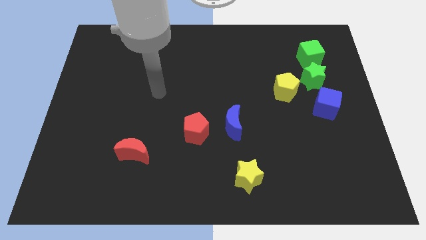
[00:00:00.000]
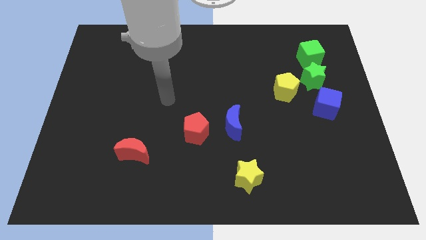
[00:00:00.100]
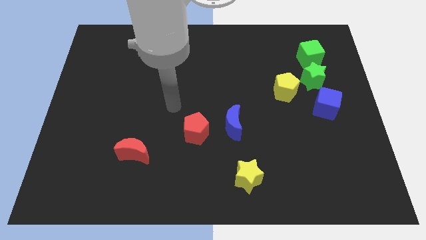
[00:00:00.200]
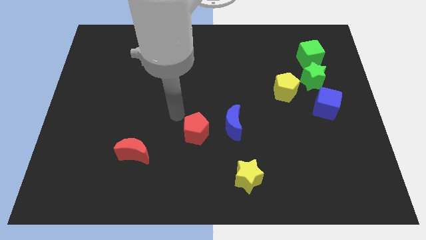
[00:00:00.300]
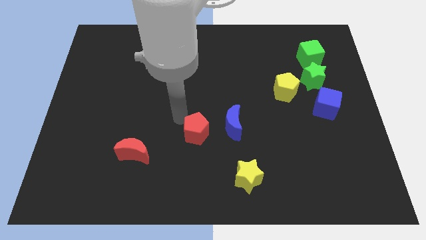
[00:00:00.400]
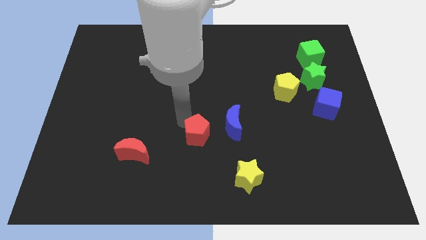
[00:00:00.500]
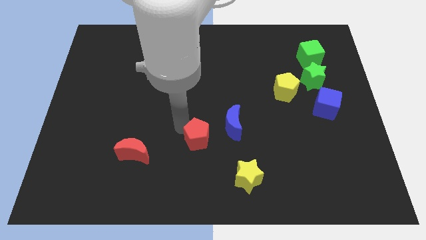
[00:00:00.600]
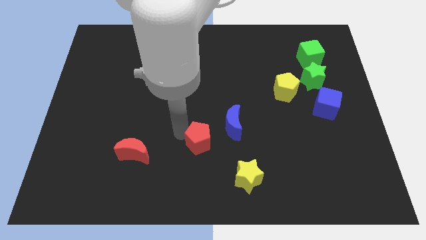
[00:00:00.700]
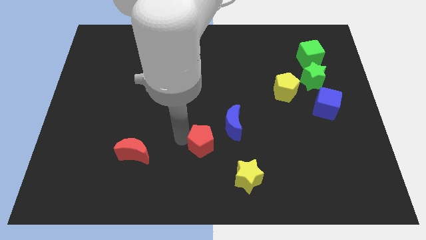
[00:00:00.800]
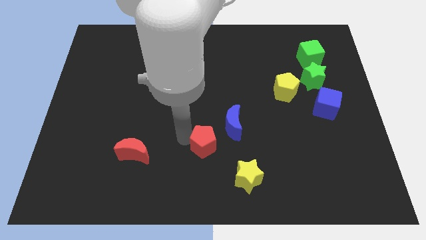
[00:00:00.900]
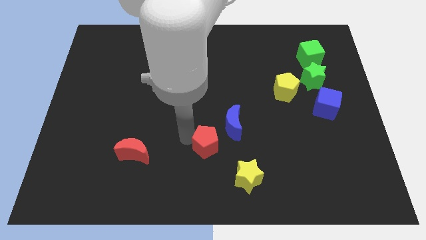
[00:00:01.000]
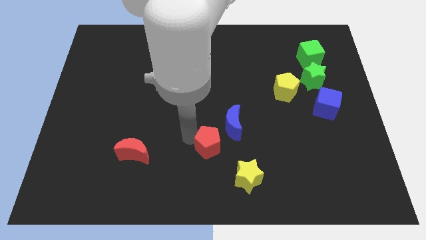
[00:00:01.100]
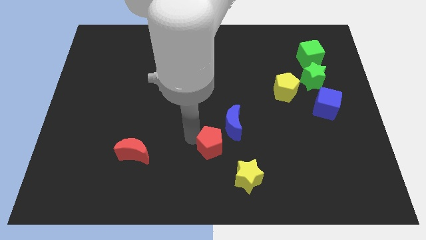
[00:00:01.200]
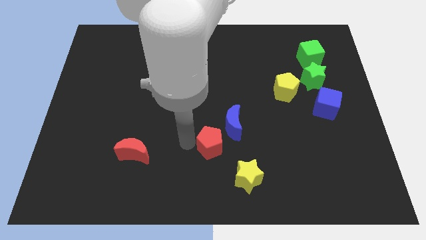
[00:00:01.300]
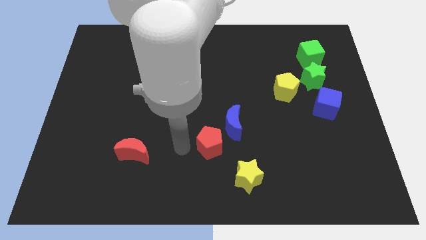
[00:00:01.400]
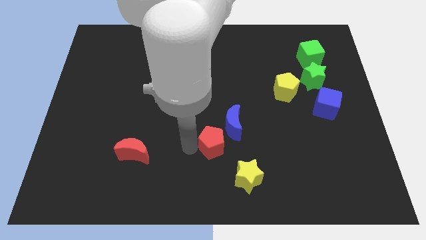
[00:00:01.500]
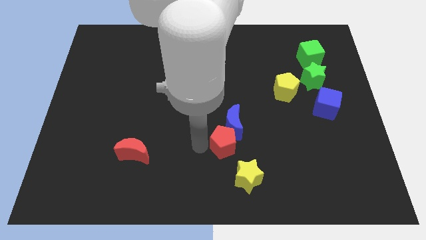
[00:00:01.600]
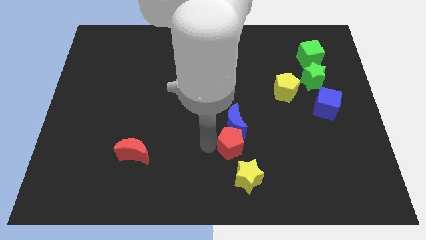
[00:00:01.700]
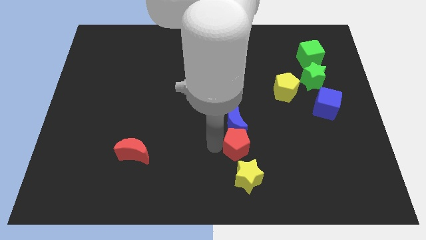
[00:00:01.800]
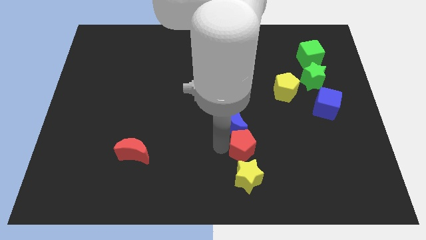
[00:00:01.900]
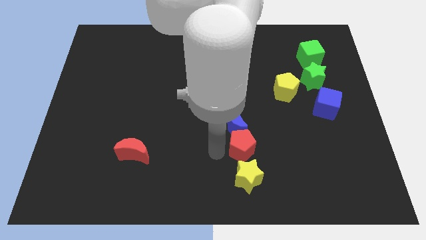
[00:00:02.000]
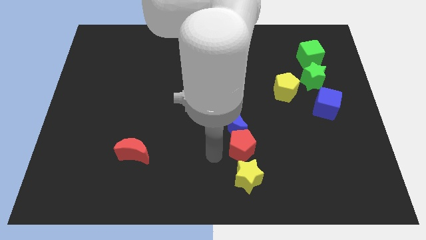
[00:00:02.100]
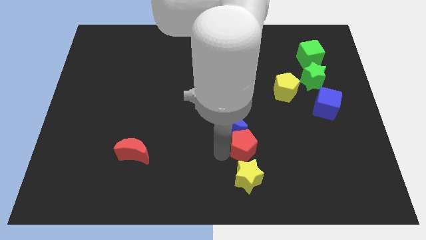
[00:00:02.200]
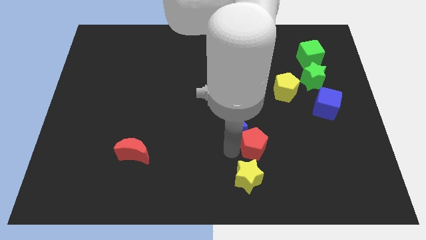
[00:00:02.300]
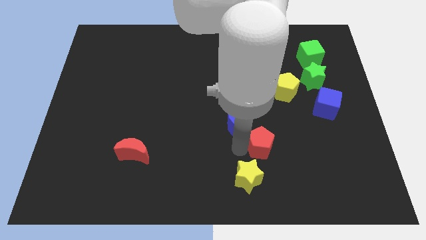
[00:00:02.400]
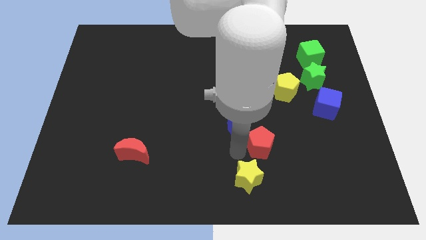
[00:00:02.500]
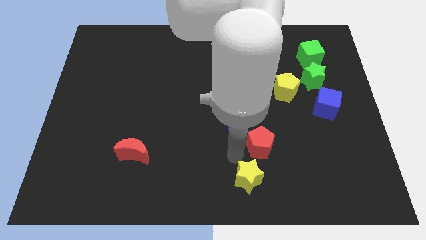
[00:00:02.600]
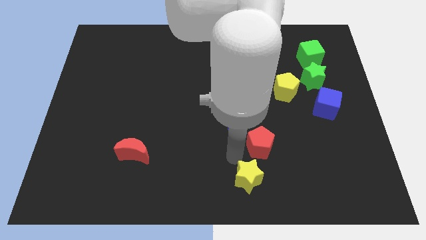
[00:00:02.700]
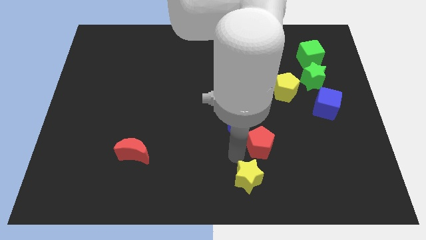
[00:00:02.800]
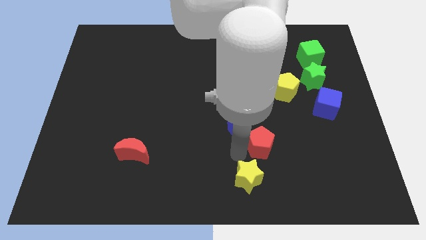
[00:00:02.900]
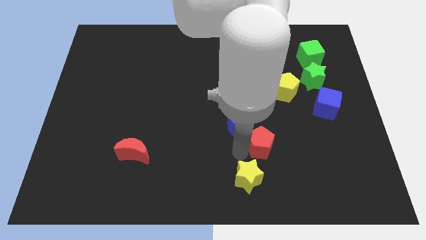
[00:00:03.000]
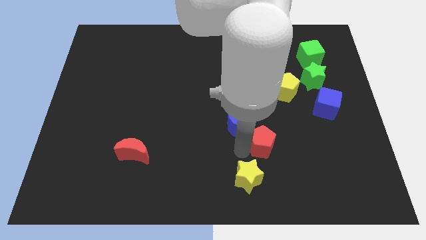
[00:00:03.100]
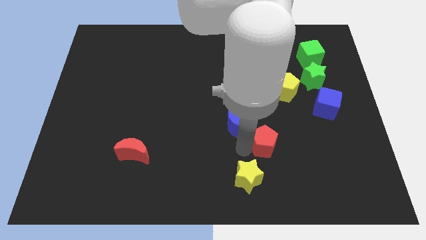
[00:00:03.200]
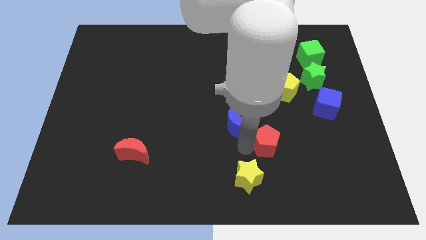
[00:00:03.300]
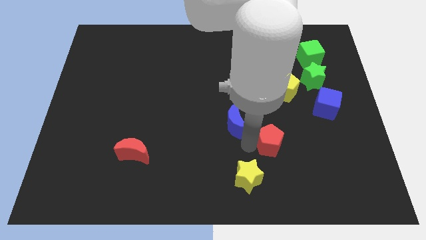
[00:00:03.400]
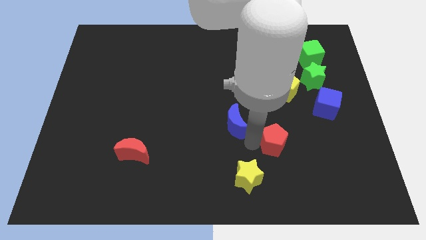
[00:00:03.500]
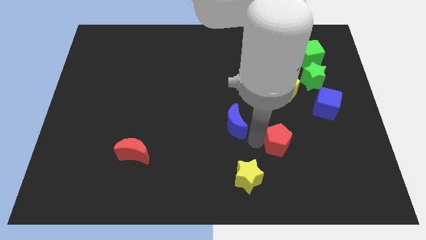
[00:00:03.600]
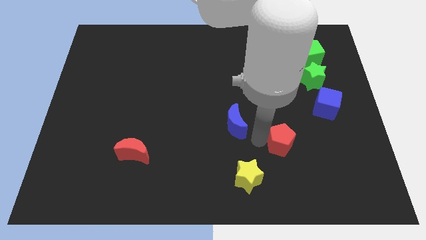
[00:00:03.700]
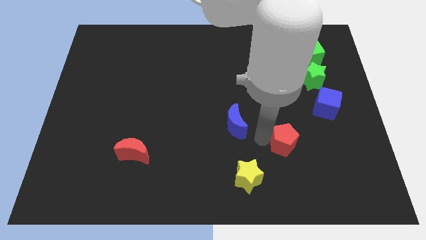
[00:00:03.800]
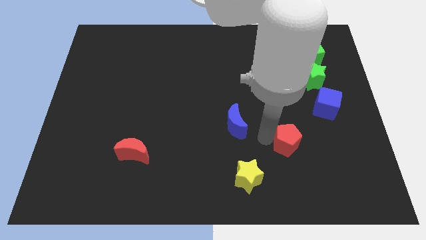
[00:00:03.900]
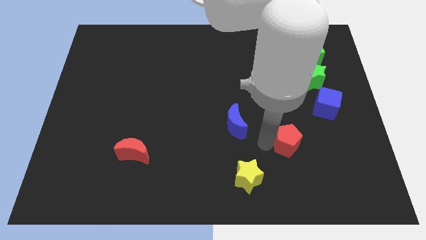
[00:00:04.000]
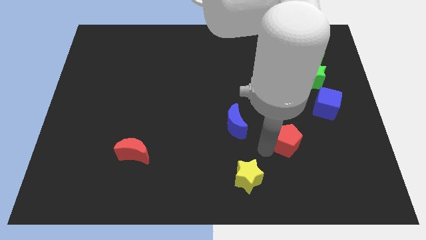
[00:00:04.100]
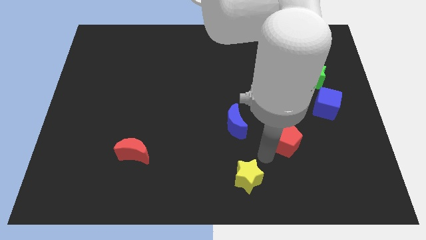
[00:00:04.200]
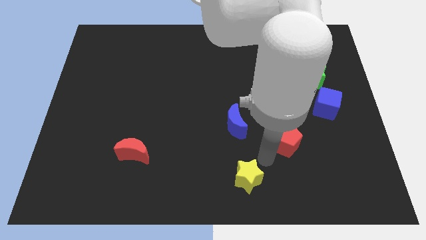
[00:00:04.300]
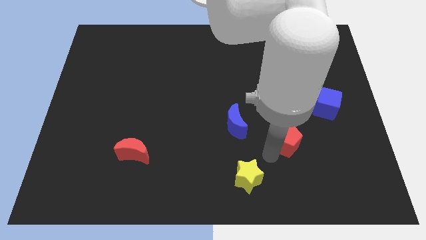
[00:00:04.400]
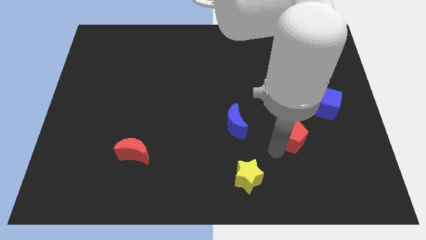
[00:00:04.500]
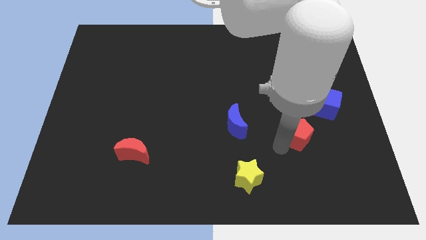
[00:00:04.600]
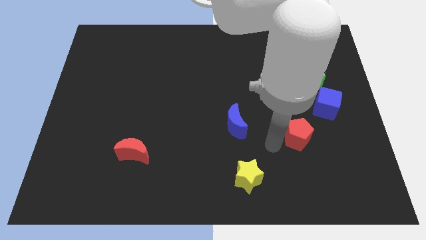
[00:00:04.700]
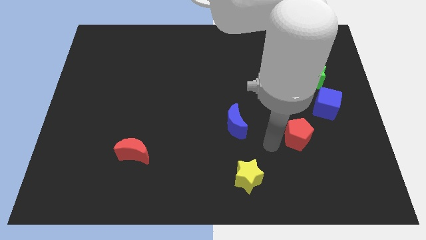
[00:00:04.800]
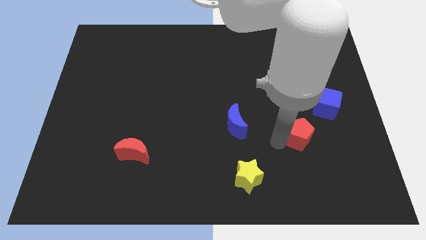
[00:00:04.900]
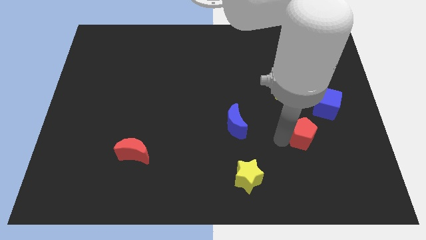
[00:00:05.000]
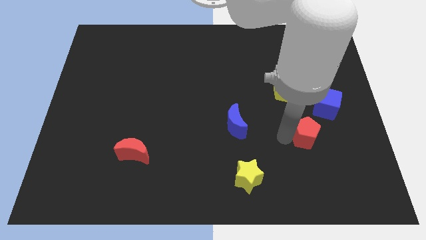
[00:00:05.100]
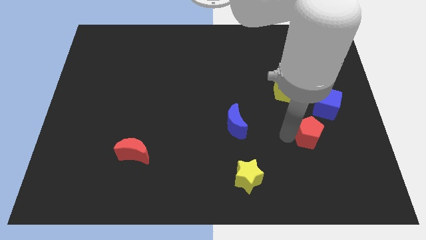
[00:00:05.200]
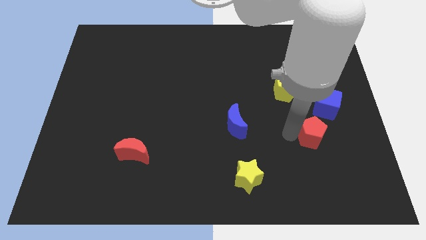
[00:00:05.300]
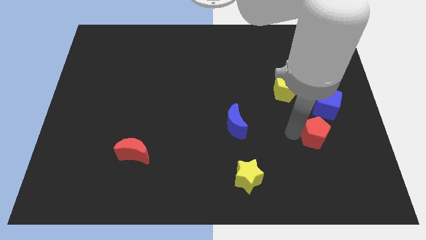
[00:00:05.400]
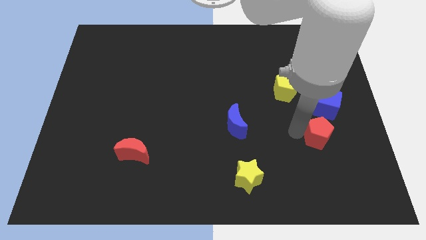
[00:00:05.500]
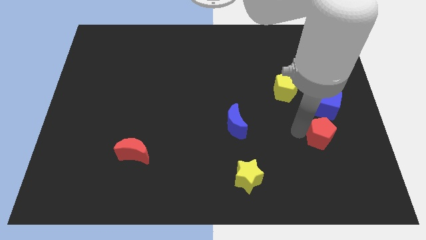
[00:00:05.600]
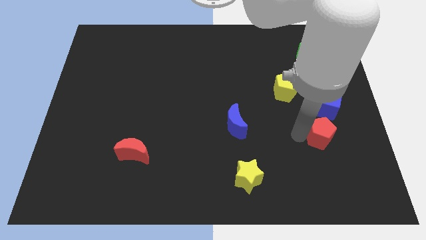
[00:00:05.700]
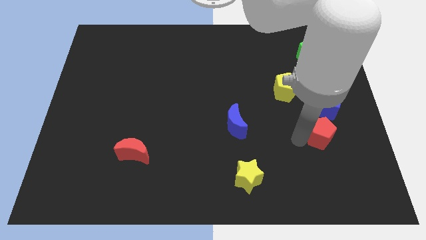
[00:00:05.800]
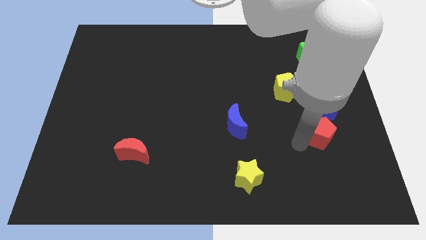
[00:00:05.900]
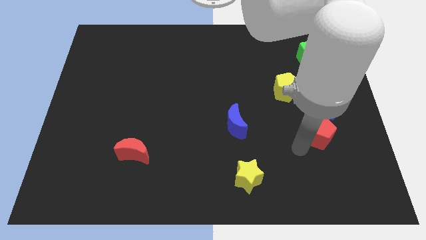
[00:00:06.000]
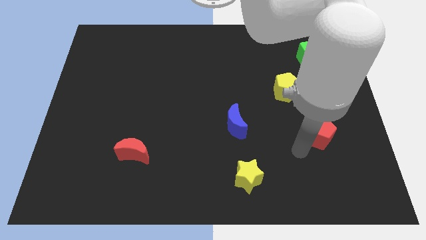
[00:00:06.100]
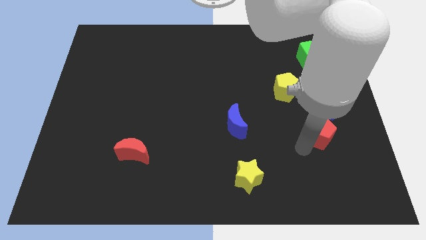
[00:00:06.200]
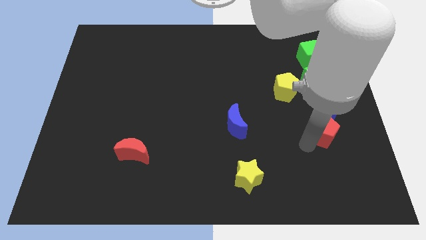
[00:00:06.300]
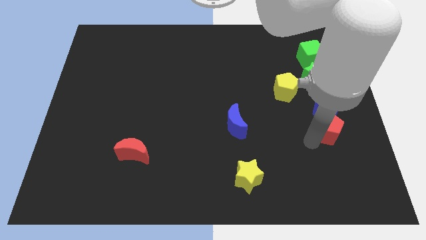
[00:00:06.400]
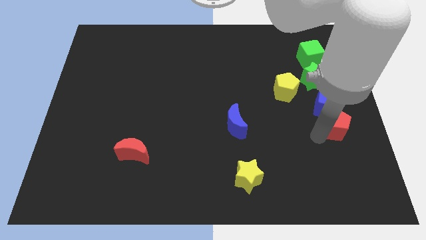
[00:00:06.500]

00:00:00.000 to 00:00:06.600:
push the red pentagon to the right side of the board

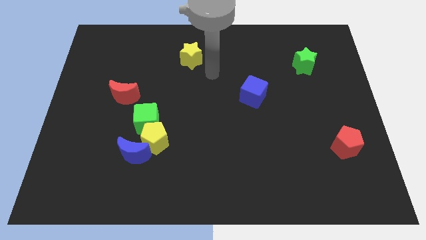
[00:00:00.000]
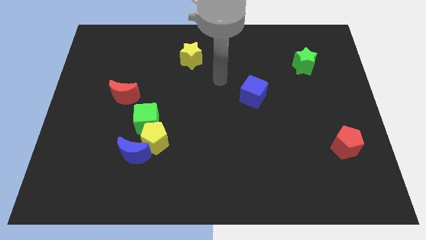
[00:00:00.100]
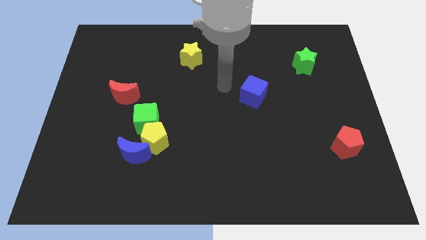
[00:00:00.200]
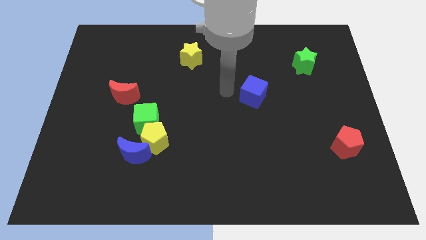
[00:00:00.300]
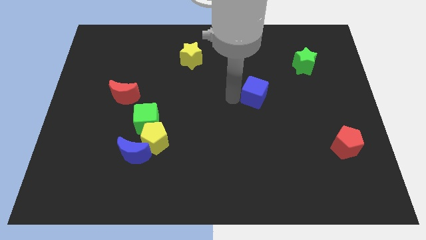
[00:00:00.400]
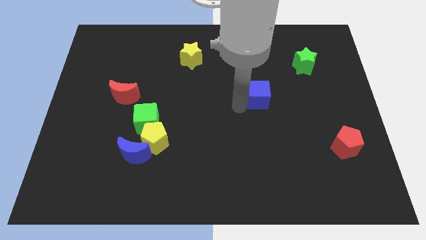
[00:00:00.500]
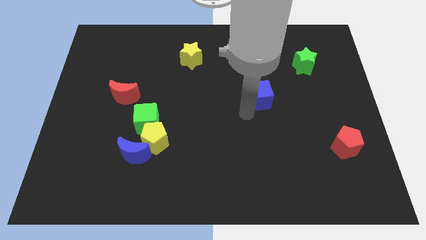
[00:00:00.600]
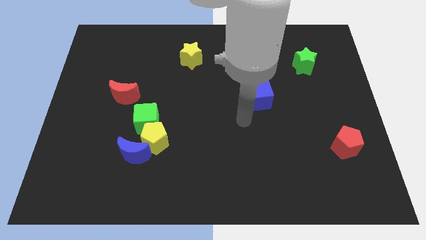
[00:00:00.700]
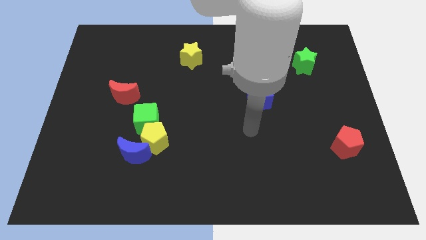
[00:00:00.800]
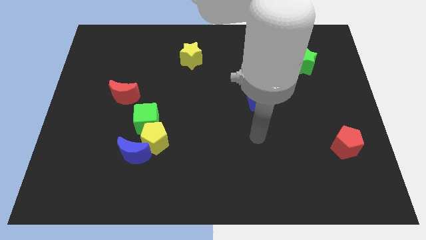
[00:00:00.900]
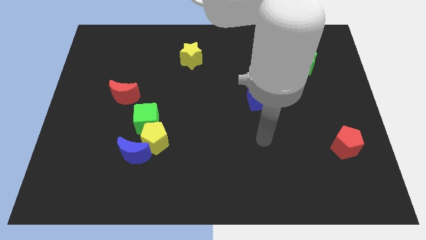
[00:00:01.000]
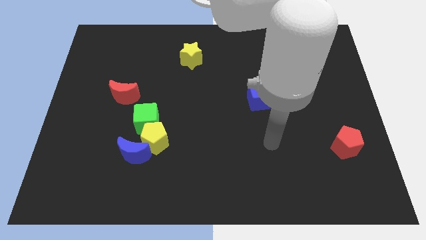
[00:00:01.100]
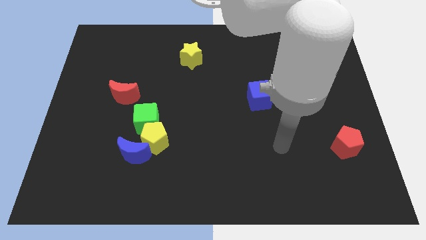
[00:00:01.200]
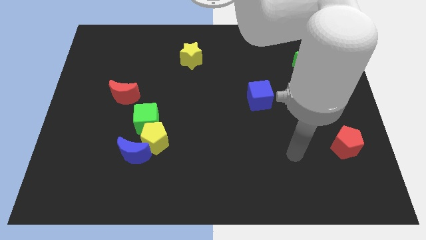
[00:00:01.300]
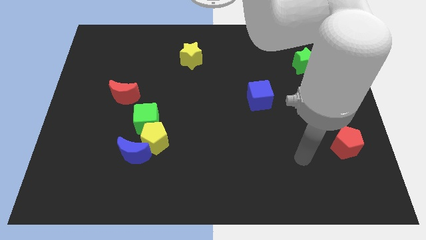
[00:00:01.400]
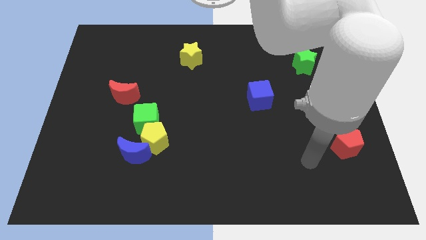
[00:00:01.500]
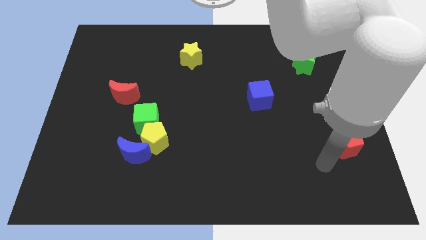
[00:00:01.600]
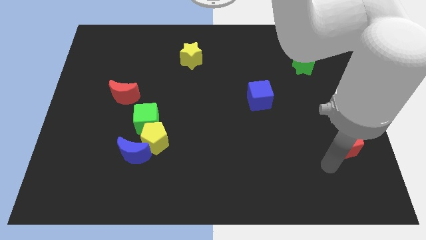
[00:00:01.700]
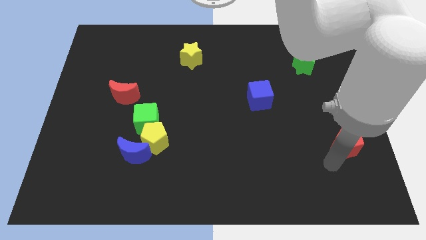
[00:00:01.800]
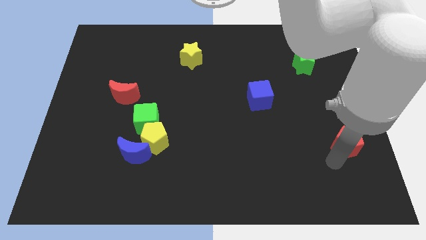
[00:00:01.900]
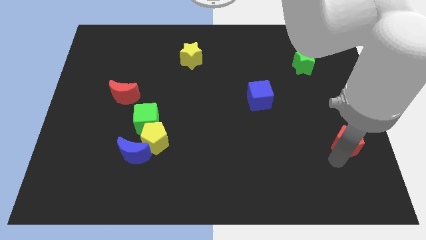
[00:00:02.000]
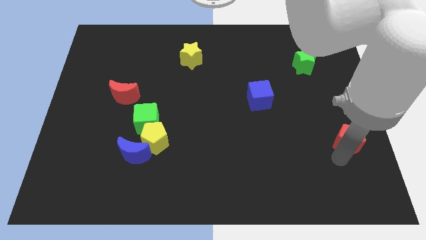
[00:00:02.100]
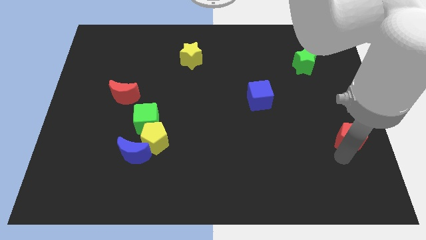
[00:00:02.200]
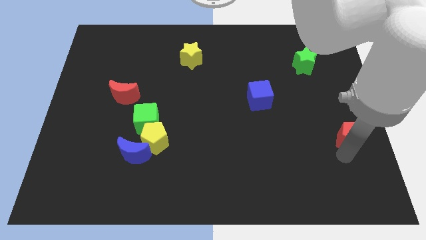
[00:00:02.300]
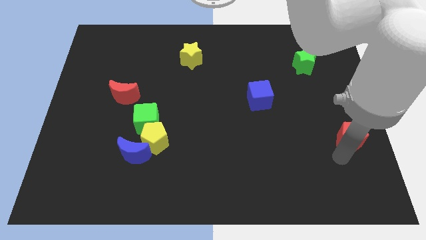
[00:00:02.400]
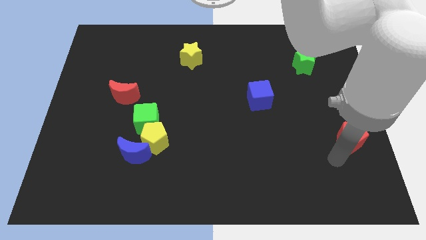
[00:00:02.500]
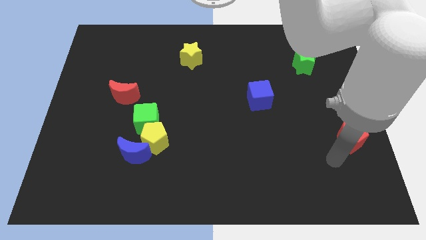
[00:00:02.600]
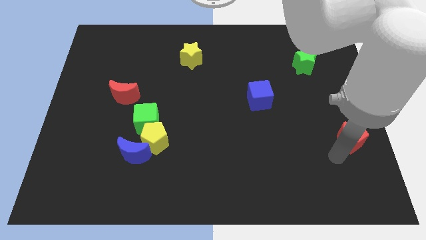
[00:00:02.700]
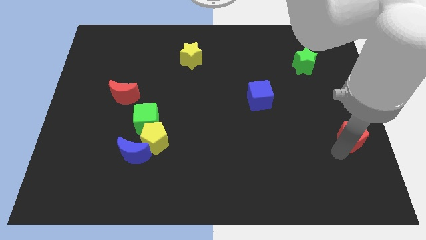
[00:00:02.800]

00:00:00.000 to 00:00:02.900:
put the red pentagon to the right side of the board
